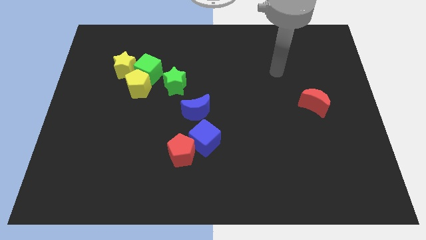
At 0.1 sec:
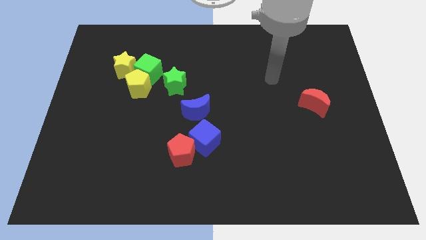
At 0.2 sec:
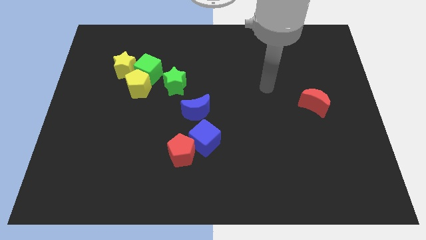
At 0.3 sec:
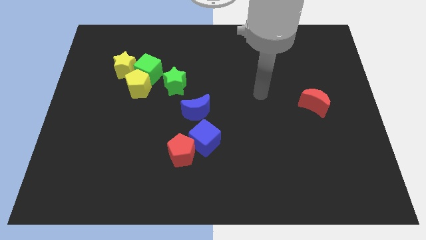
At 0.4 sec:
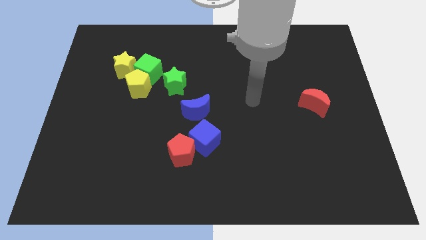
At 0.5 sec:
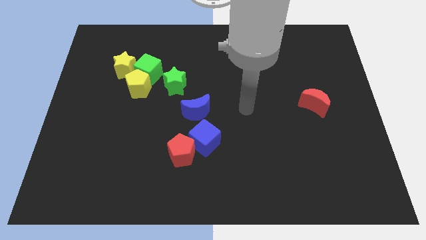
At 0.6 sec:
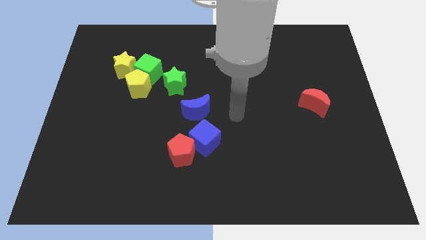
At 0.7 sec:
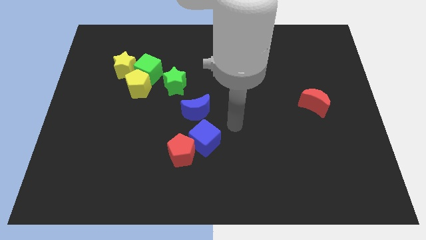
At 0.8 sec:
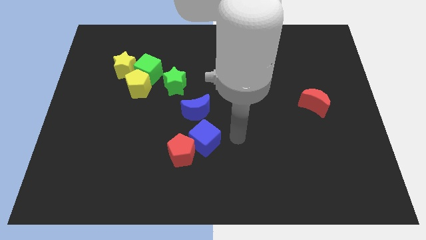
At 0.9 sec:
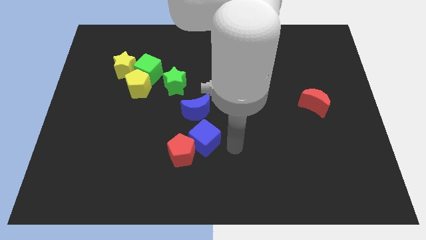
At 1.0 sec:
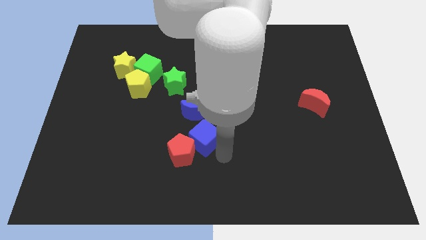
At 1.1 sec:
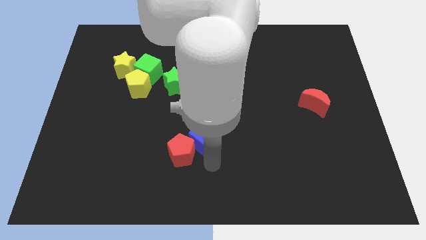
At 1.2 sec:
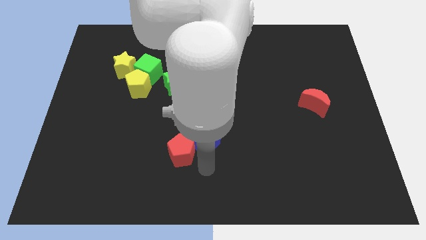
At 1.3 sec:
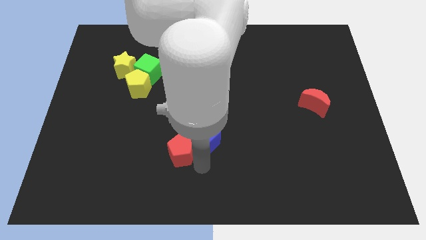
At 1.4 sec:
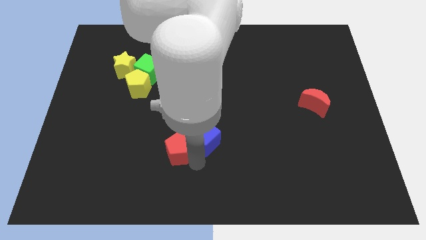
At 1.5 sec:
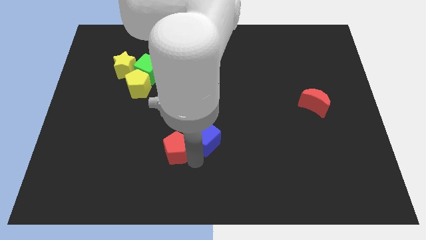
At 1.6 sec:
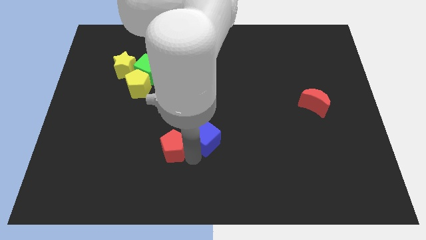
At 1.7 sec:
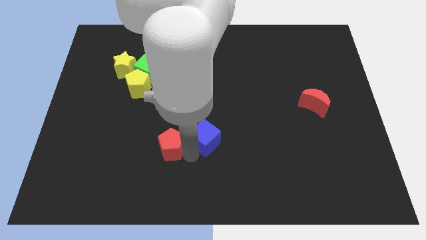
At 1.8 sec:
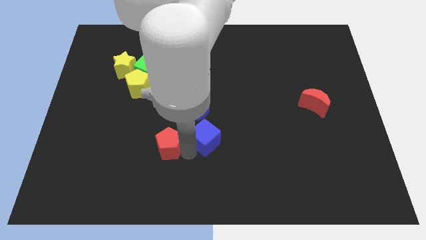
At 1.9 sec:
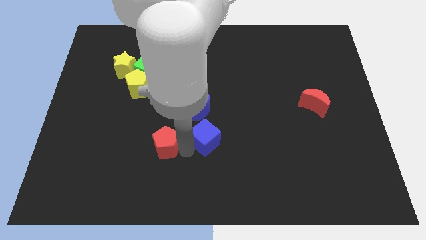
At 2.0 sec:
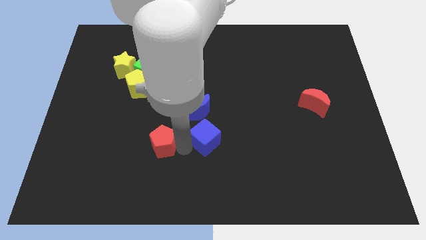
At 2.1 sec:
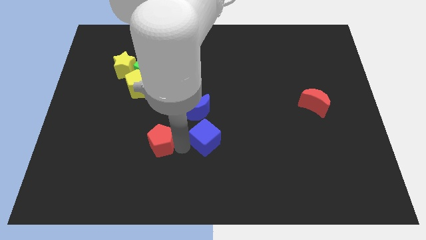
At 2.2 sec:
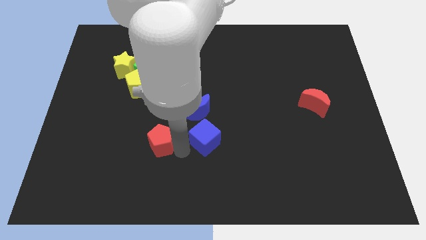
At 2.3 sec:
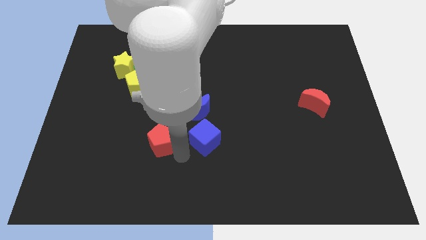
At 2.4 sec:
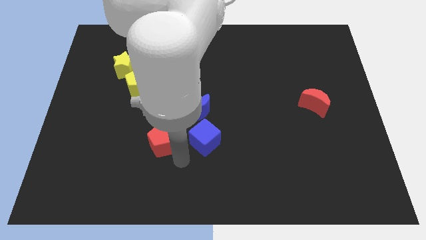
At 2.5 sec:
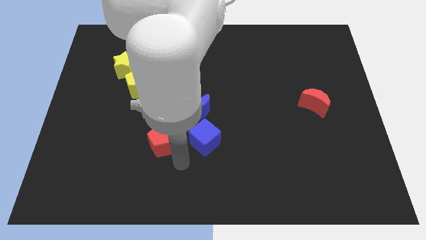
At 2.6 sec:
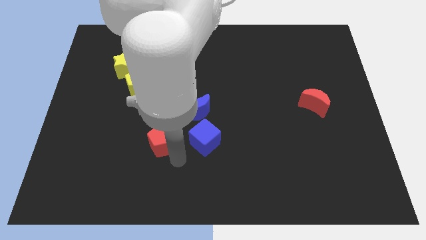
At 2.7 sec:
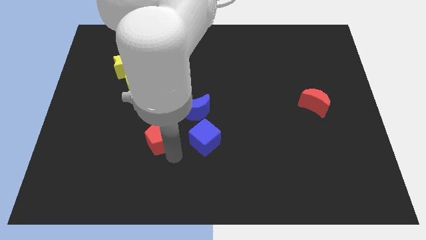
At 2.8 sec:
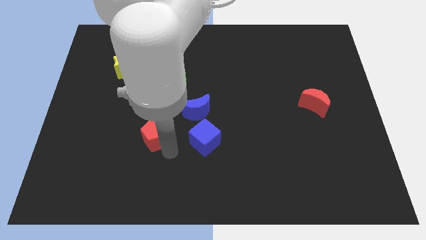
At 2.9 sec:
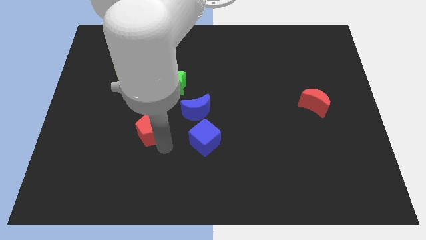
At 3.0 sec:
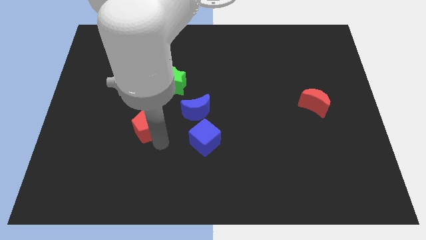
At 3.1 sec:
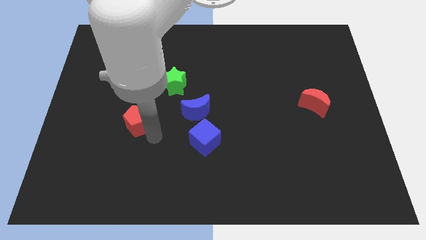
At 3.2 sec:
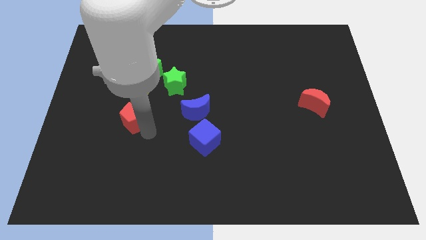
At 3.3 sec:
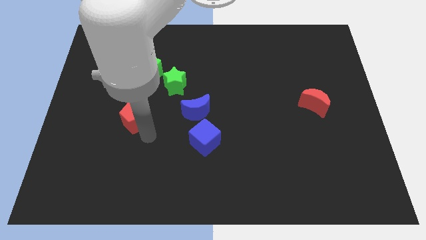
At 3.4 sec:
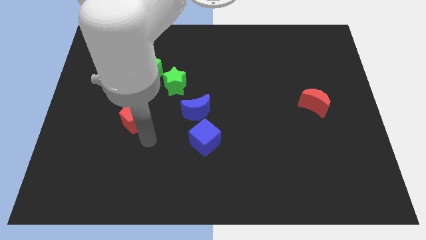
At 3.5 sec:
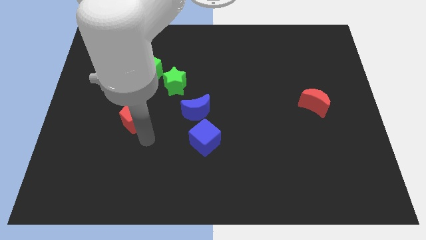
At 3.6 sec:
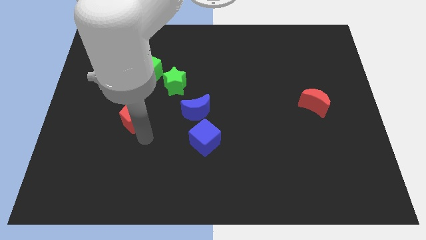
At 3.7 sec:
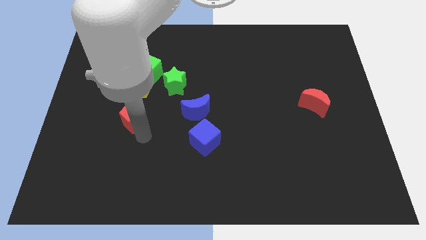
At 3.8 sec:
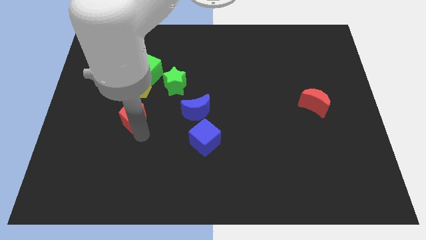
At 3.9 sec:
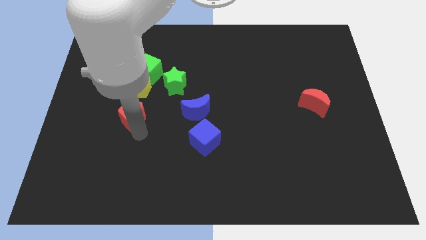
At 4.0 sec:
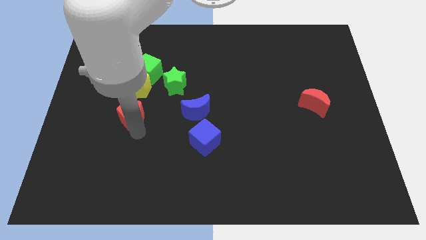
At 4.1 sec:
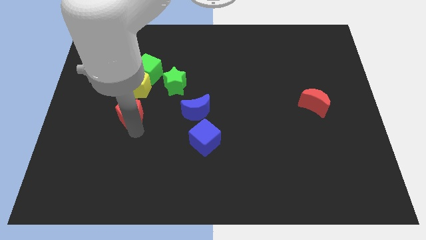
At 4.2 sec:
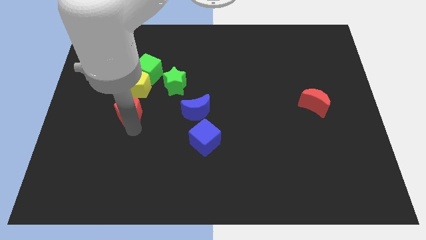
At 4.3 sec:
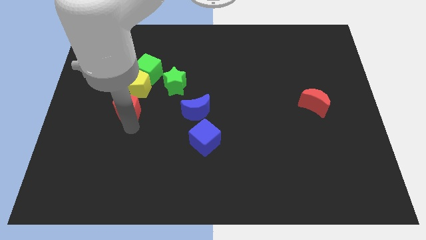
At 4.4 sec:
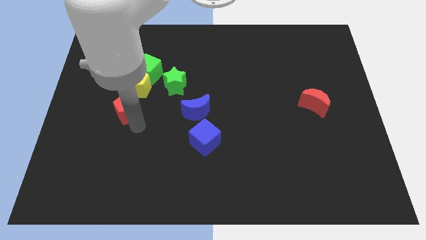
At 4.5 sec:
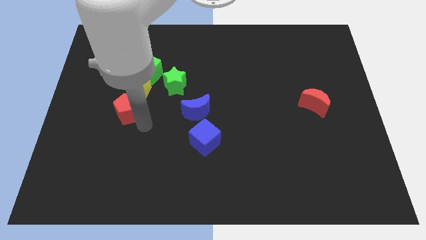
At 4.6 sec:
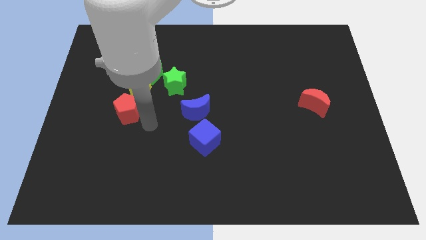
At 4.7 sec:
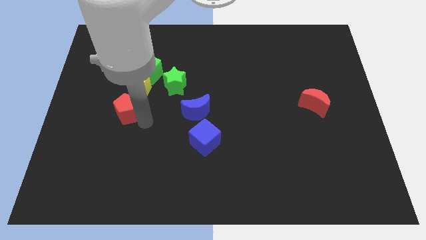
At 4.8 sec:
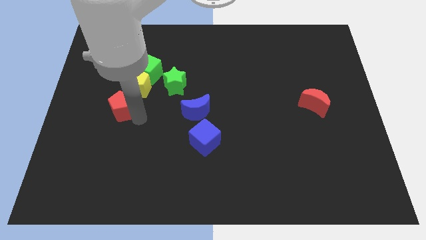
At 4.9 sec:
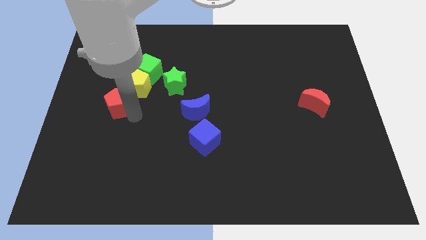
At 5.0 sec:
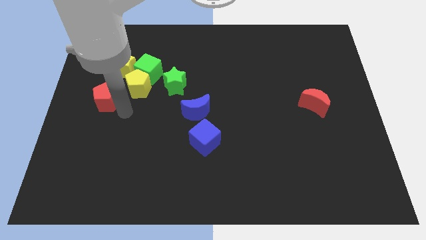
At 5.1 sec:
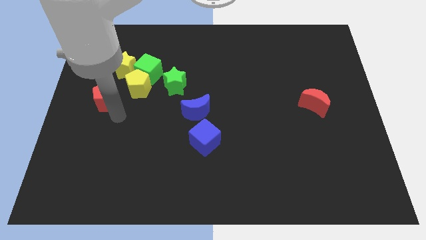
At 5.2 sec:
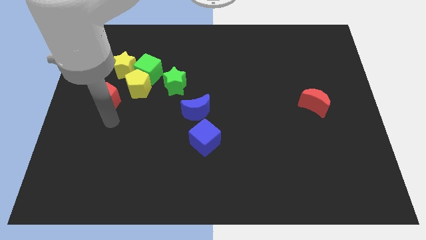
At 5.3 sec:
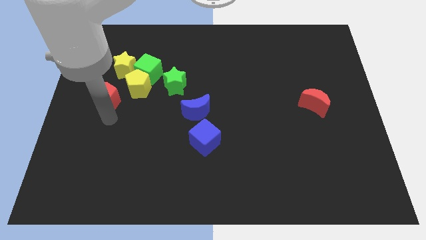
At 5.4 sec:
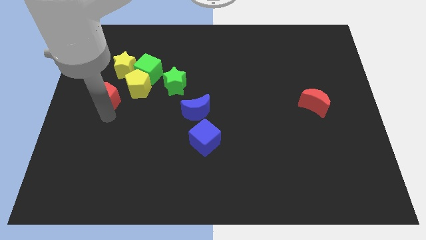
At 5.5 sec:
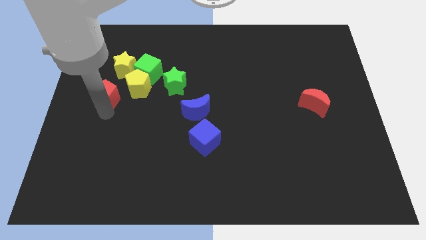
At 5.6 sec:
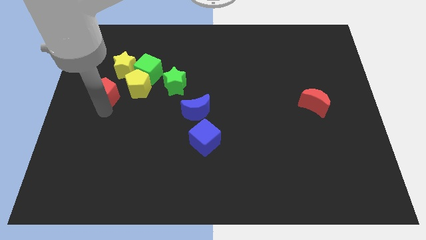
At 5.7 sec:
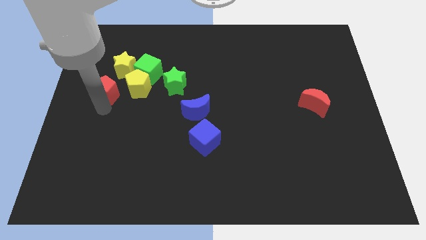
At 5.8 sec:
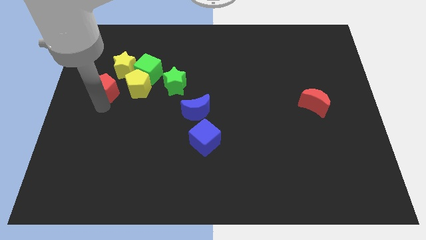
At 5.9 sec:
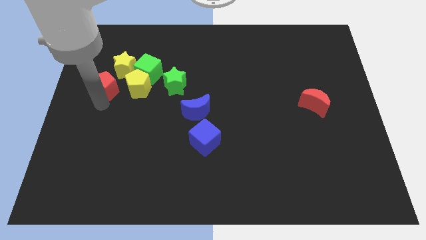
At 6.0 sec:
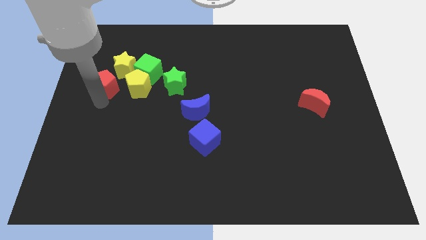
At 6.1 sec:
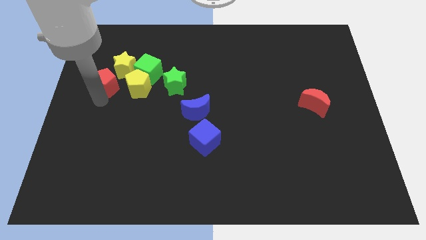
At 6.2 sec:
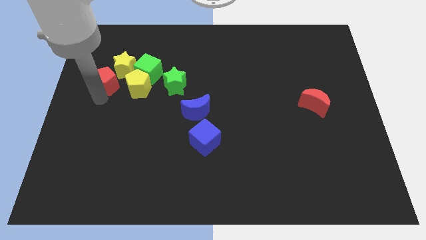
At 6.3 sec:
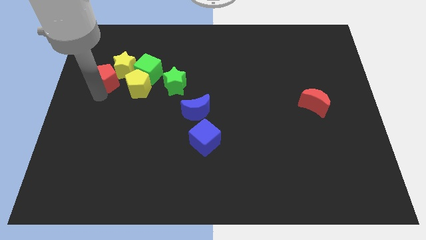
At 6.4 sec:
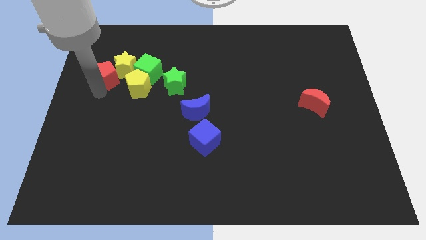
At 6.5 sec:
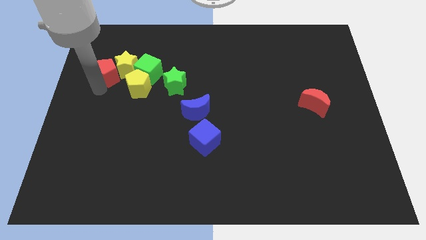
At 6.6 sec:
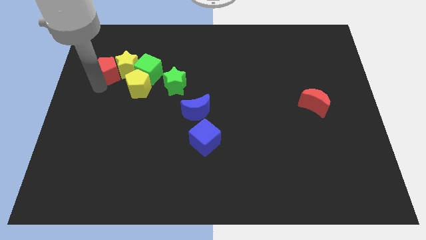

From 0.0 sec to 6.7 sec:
slide the red pentagon diagonally up and to the left of the yellow star
